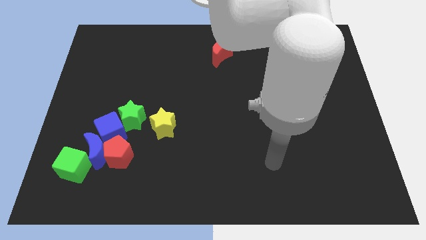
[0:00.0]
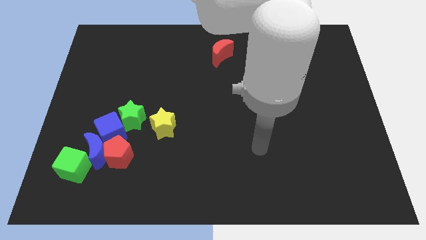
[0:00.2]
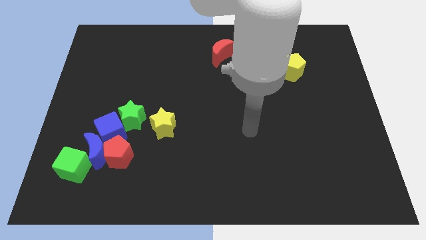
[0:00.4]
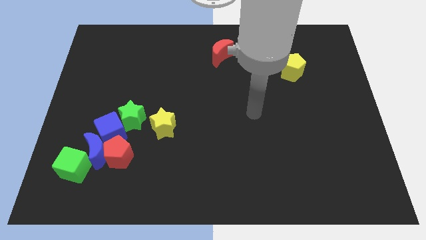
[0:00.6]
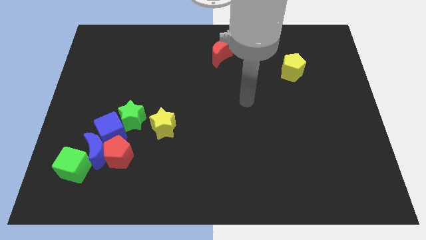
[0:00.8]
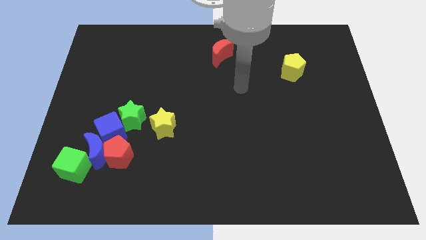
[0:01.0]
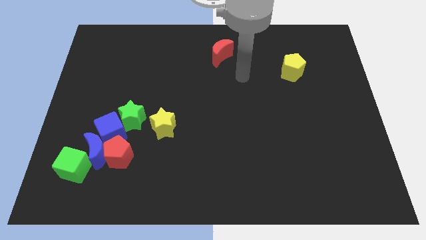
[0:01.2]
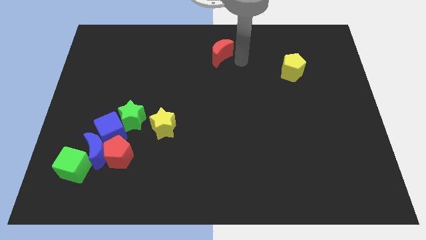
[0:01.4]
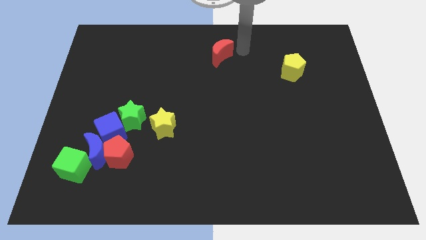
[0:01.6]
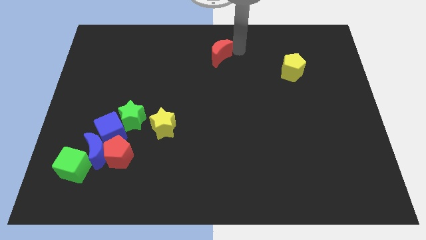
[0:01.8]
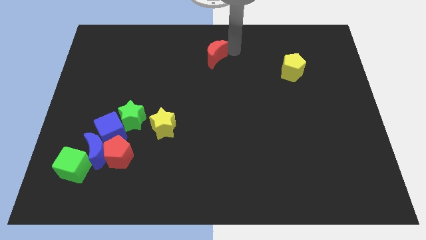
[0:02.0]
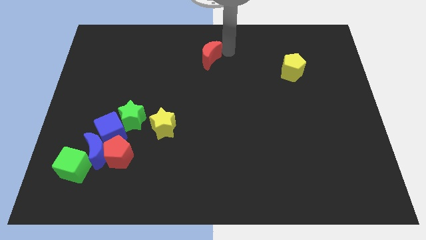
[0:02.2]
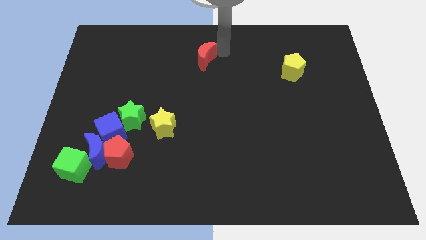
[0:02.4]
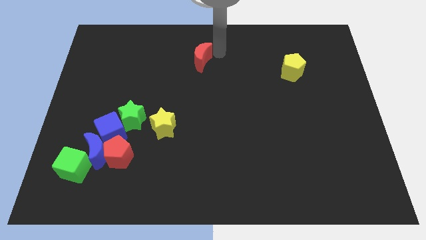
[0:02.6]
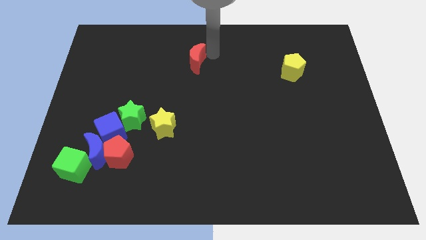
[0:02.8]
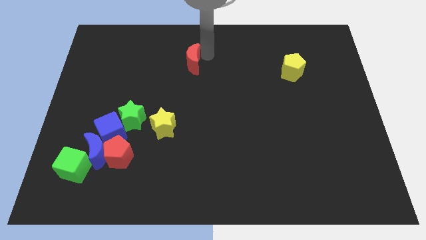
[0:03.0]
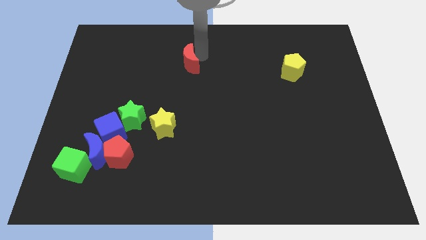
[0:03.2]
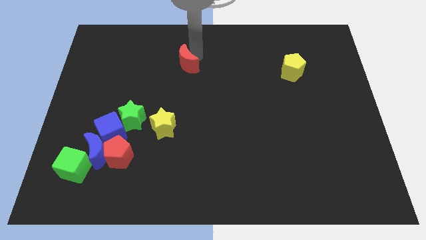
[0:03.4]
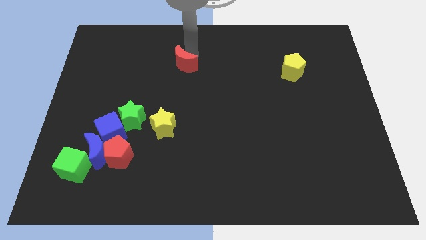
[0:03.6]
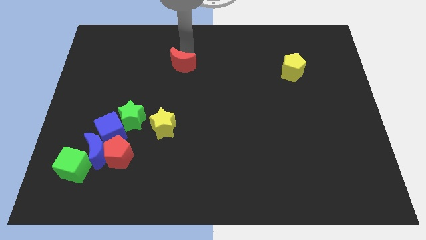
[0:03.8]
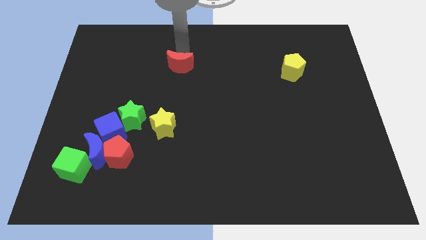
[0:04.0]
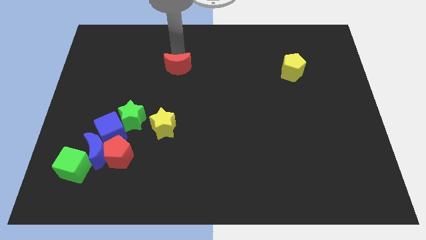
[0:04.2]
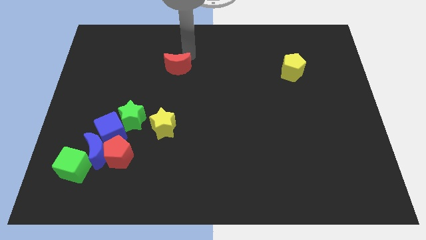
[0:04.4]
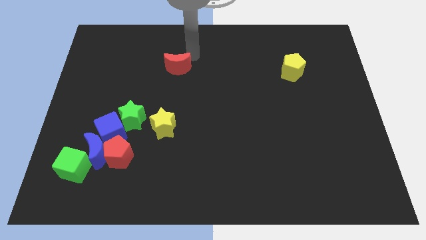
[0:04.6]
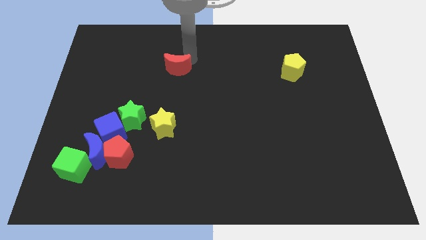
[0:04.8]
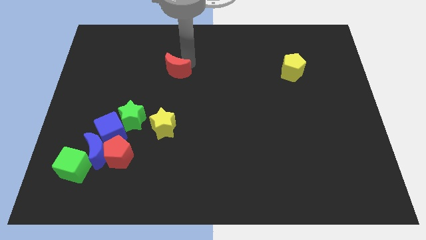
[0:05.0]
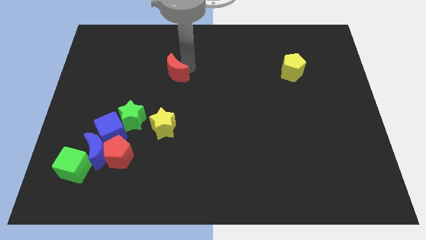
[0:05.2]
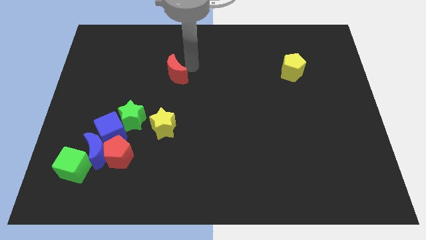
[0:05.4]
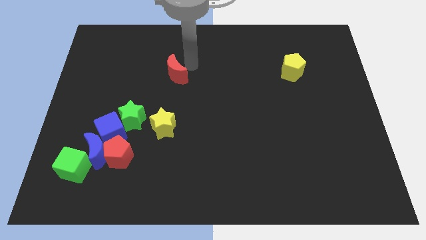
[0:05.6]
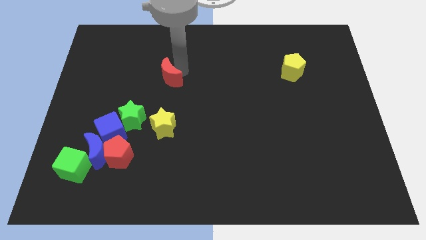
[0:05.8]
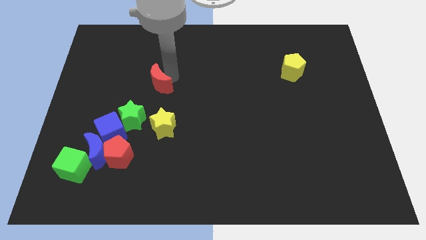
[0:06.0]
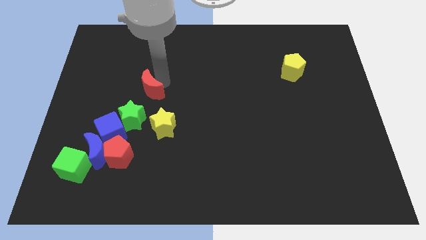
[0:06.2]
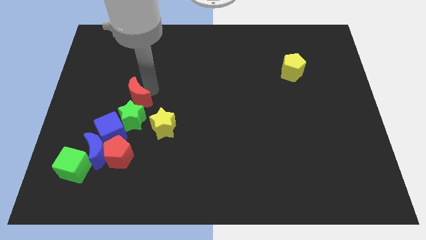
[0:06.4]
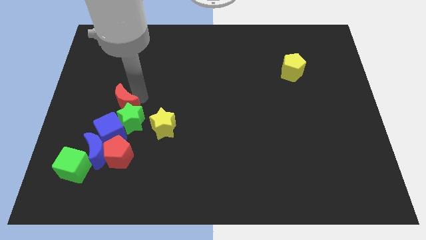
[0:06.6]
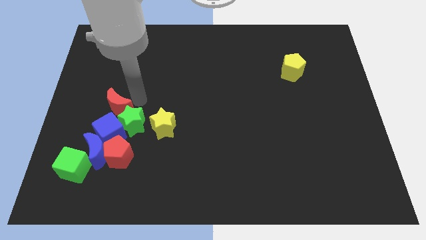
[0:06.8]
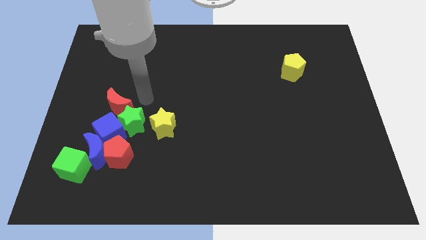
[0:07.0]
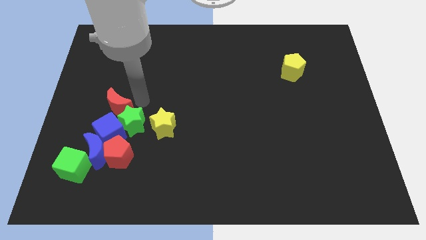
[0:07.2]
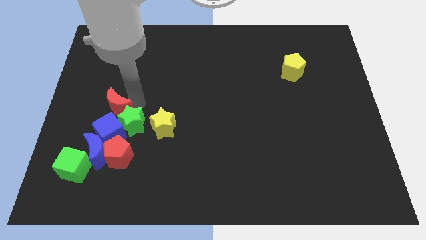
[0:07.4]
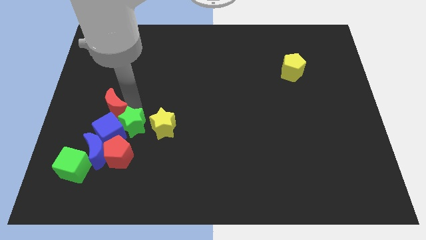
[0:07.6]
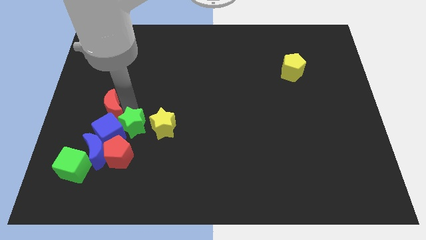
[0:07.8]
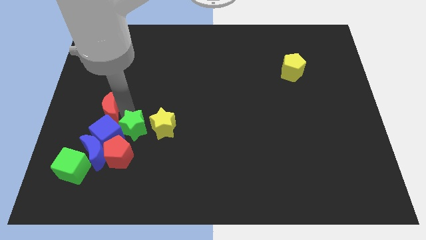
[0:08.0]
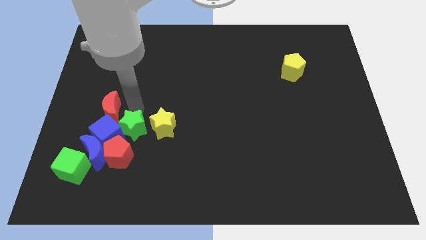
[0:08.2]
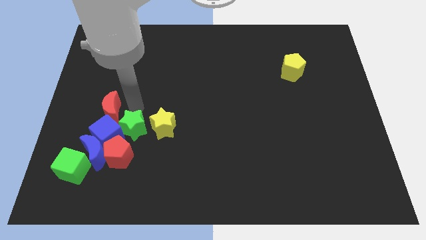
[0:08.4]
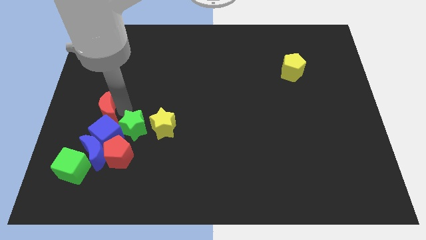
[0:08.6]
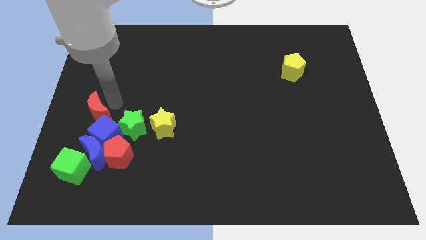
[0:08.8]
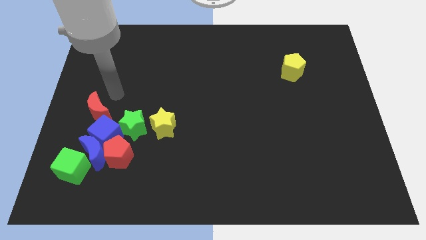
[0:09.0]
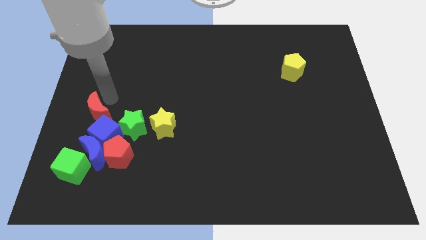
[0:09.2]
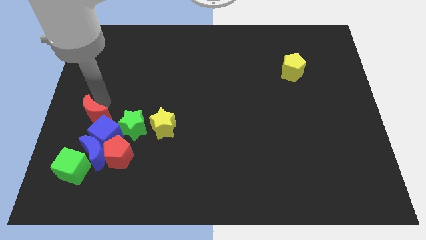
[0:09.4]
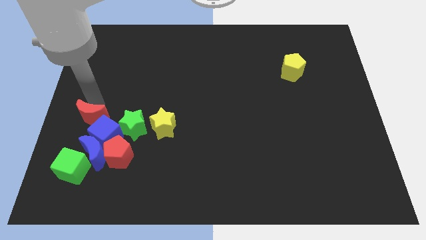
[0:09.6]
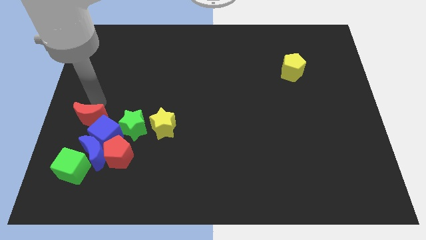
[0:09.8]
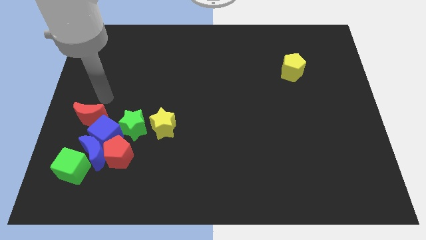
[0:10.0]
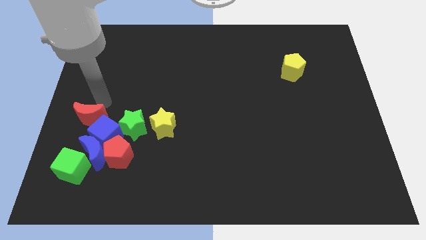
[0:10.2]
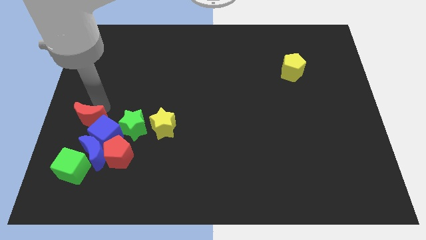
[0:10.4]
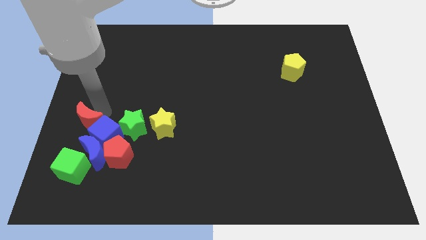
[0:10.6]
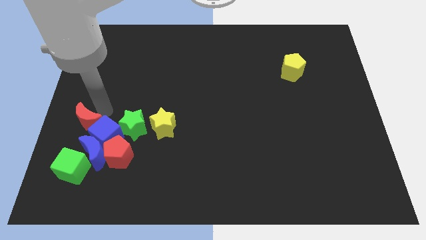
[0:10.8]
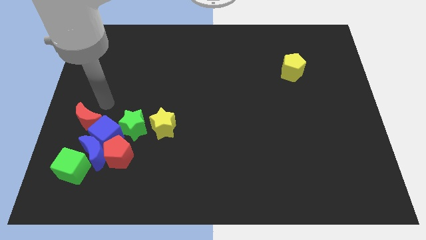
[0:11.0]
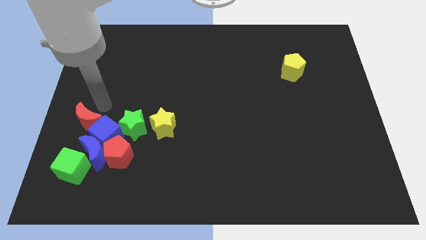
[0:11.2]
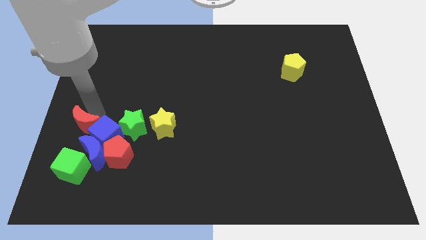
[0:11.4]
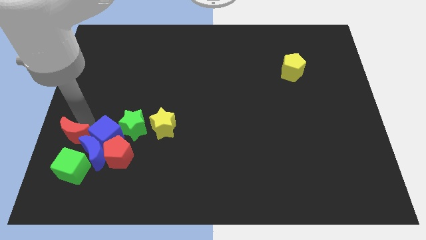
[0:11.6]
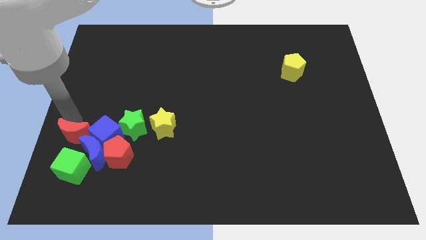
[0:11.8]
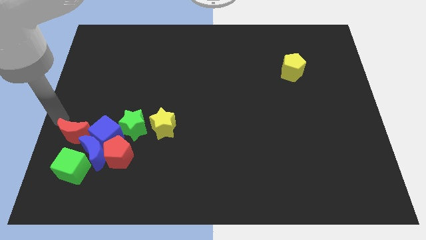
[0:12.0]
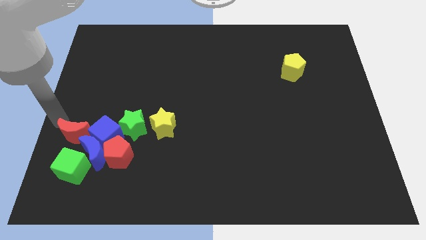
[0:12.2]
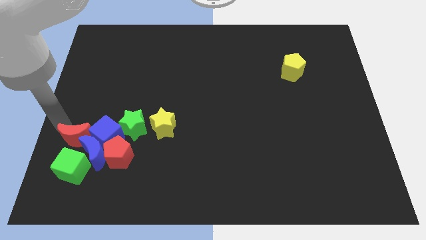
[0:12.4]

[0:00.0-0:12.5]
put the red moon next to the blue moon

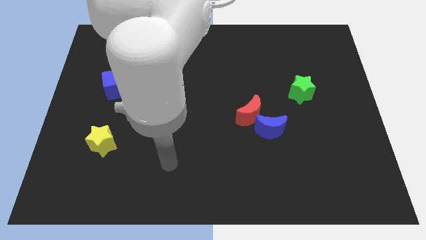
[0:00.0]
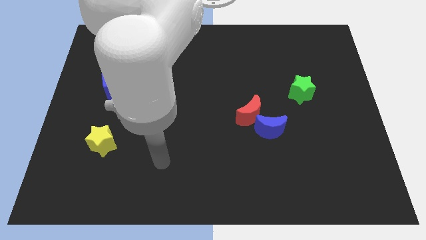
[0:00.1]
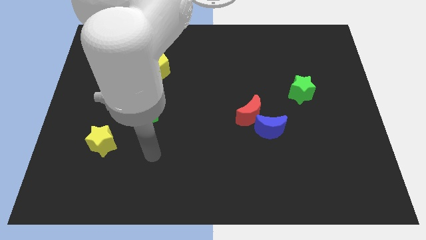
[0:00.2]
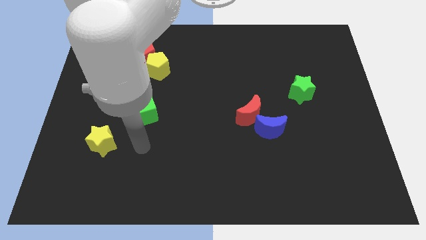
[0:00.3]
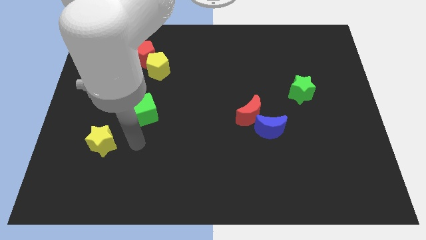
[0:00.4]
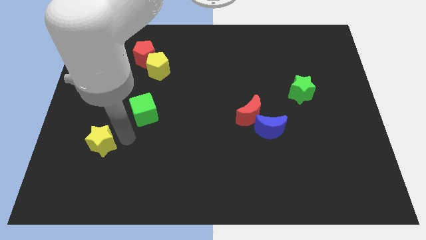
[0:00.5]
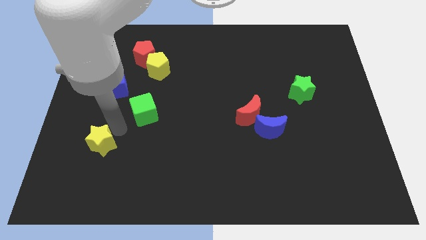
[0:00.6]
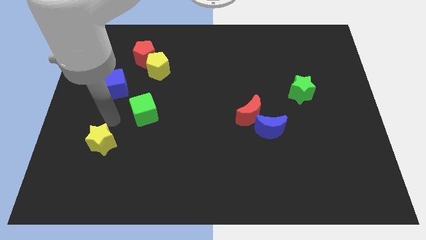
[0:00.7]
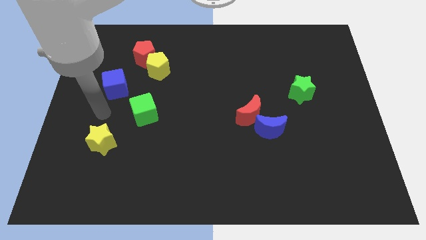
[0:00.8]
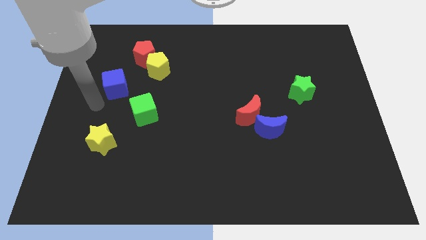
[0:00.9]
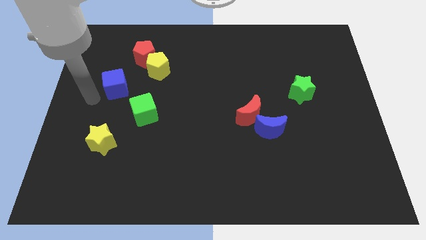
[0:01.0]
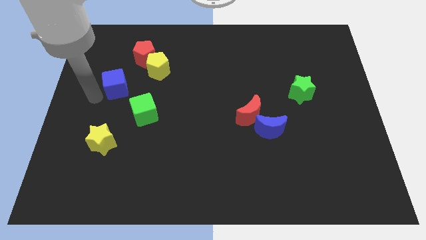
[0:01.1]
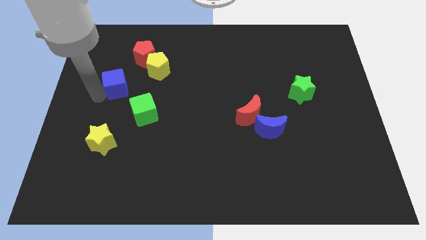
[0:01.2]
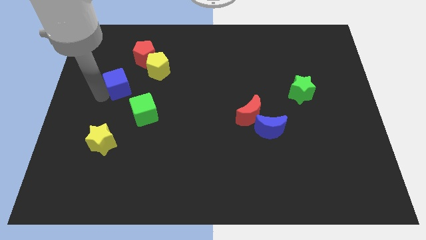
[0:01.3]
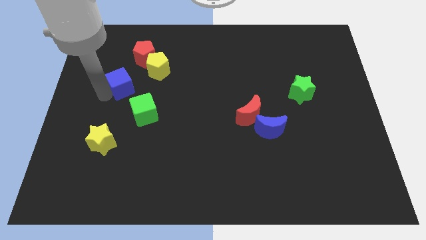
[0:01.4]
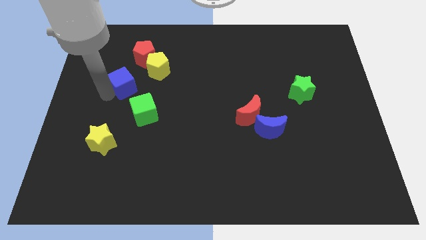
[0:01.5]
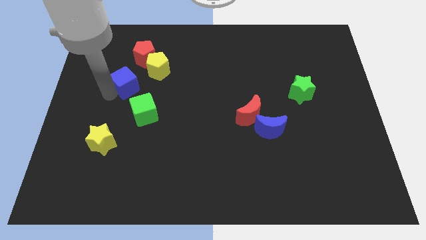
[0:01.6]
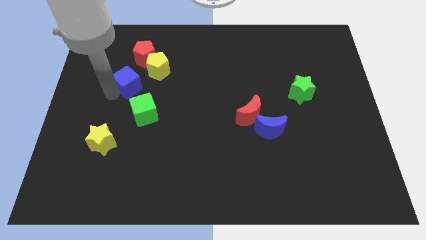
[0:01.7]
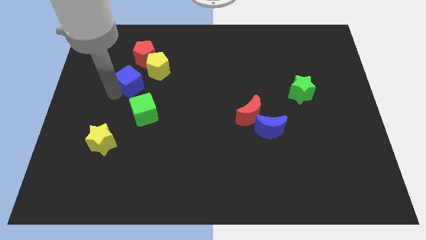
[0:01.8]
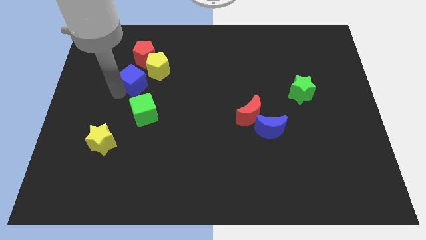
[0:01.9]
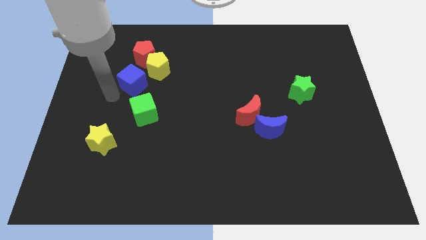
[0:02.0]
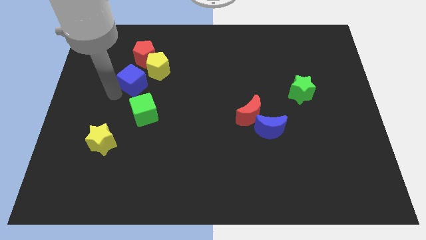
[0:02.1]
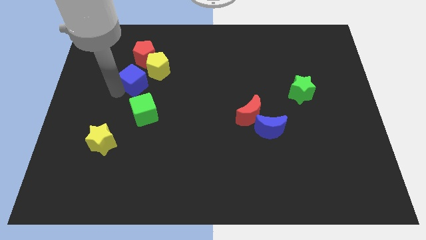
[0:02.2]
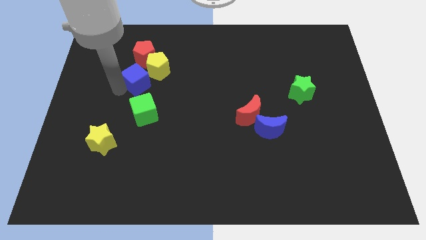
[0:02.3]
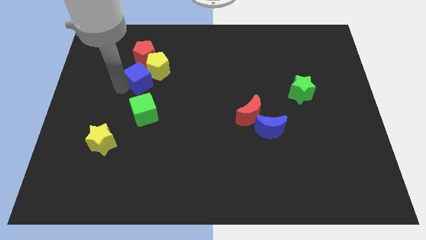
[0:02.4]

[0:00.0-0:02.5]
push the blue cube next to the yellow pentagon
